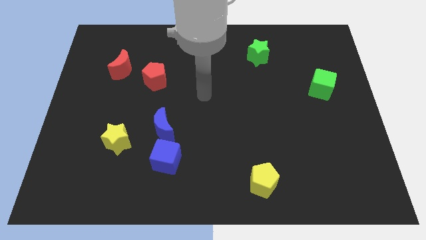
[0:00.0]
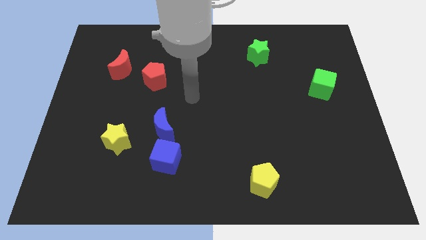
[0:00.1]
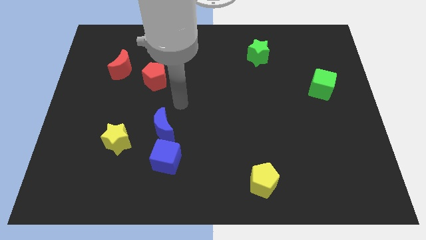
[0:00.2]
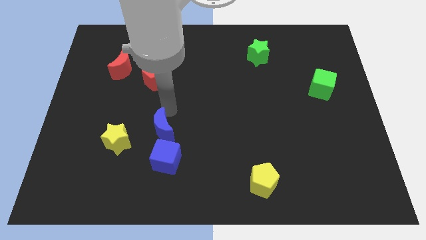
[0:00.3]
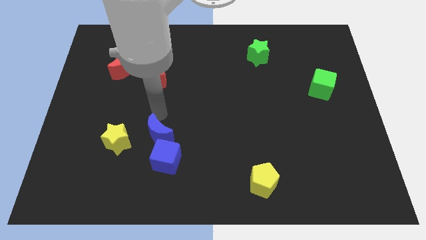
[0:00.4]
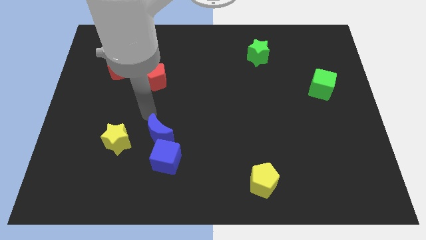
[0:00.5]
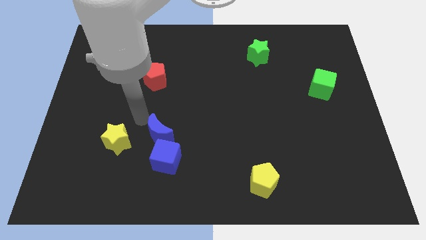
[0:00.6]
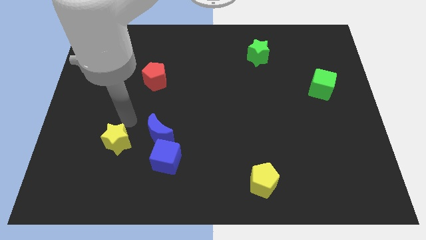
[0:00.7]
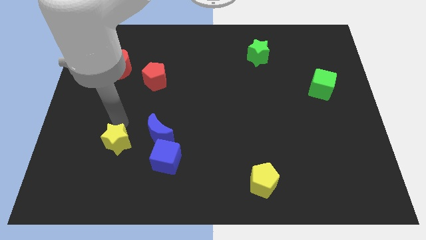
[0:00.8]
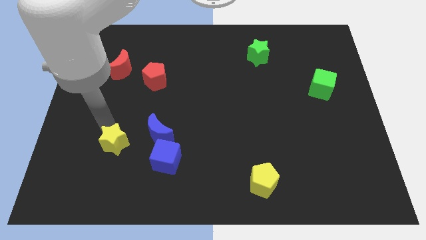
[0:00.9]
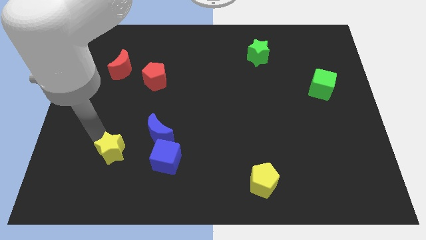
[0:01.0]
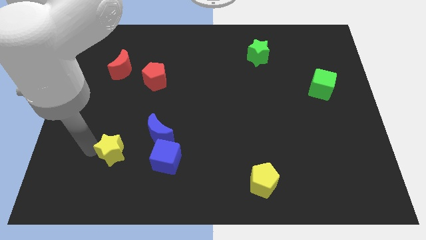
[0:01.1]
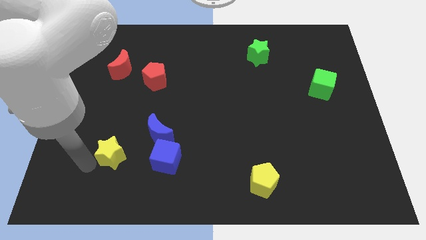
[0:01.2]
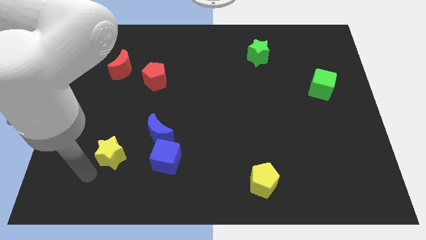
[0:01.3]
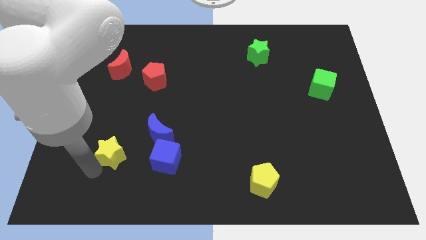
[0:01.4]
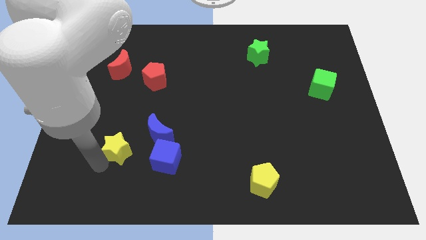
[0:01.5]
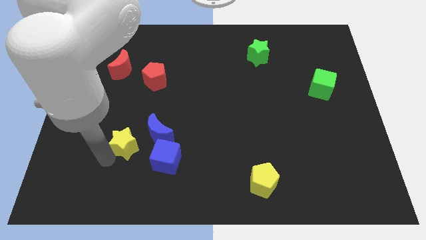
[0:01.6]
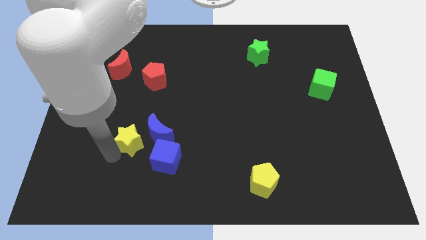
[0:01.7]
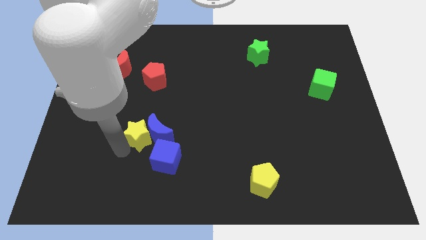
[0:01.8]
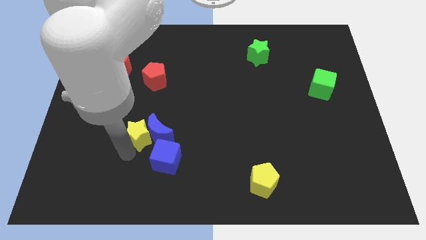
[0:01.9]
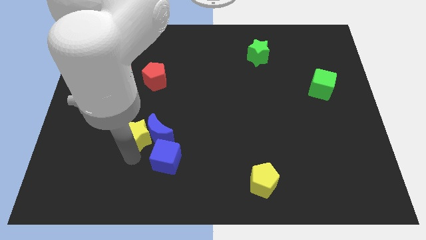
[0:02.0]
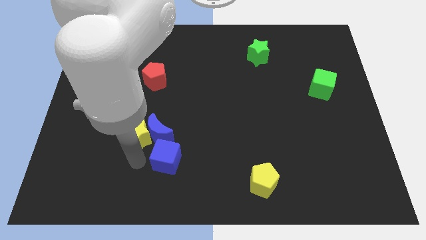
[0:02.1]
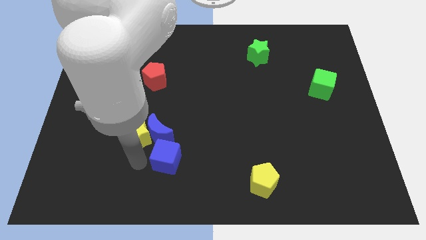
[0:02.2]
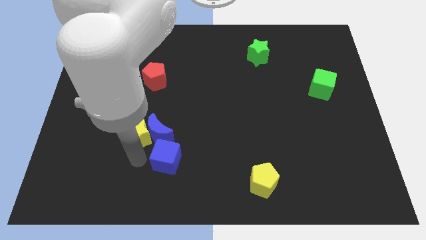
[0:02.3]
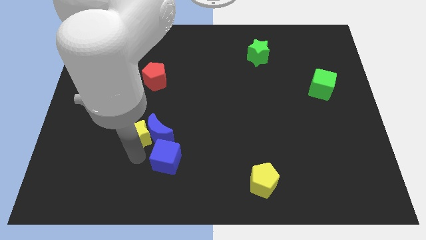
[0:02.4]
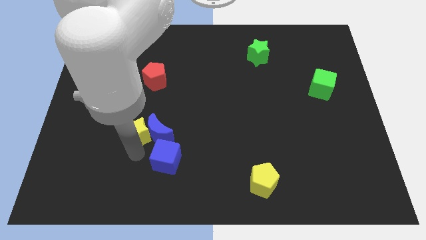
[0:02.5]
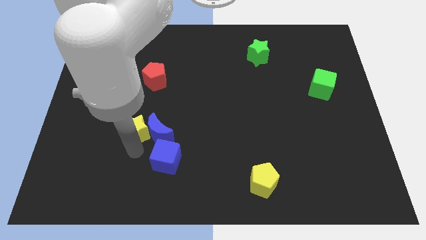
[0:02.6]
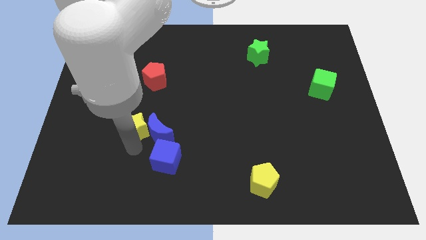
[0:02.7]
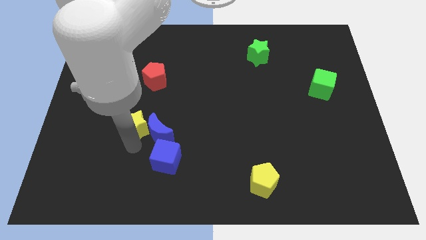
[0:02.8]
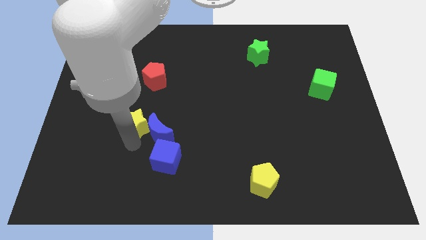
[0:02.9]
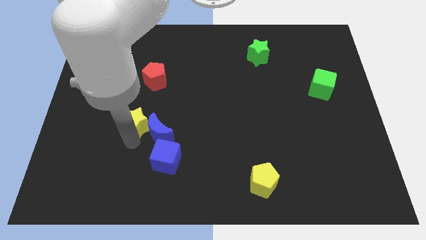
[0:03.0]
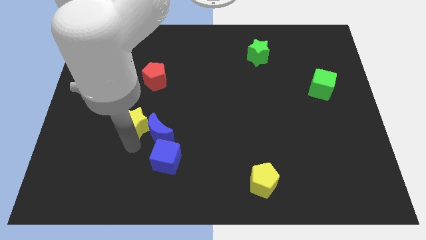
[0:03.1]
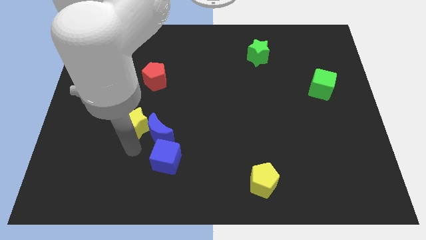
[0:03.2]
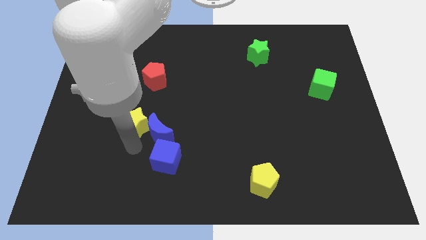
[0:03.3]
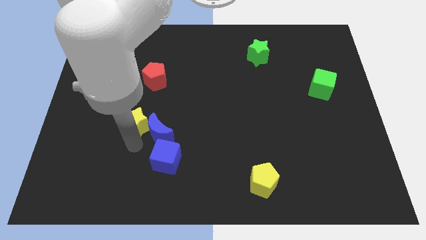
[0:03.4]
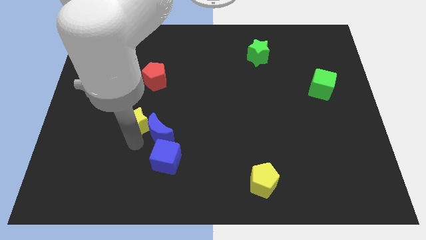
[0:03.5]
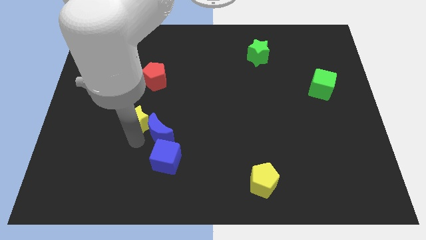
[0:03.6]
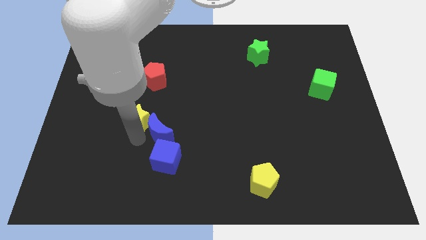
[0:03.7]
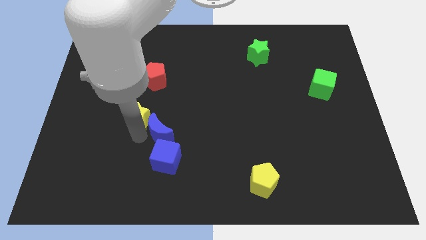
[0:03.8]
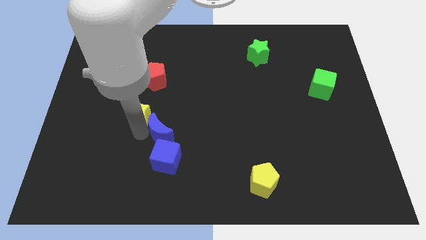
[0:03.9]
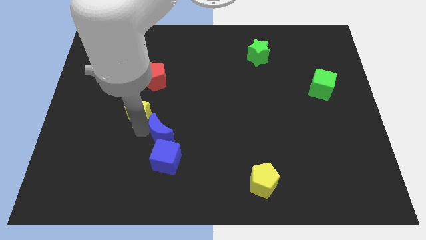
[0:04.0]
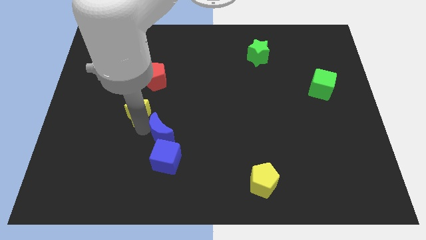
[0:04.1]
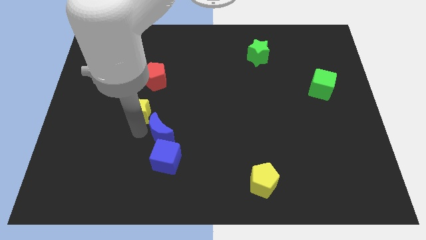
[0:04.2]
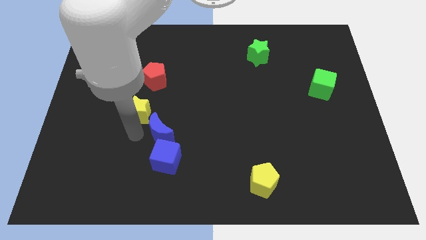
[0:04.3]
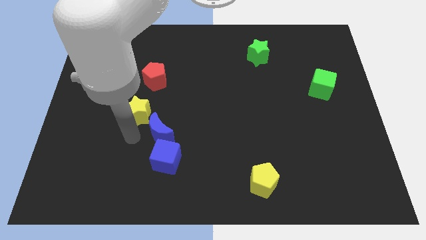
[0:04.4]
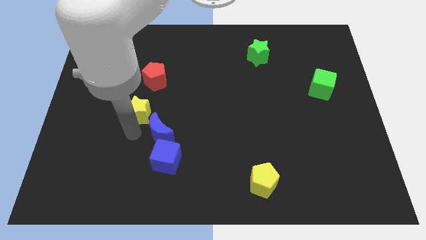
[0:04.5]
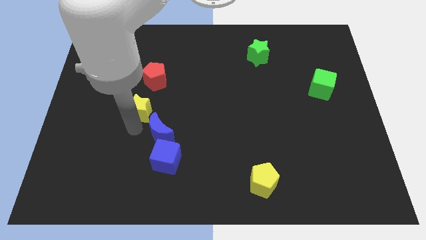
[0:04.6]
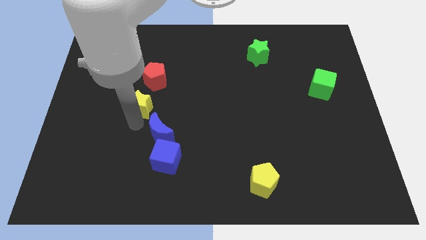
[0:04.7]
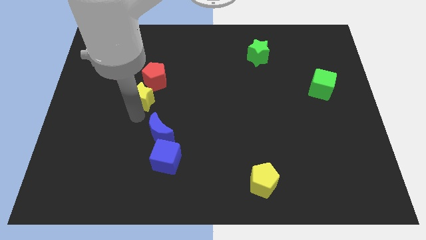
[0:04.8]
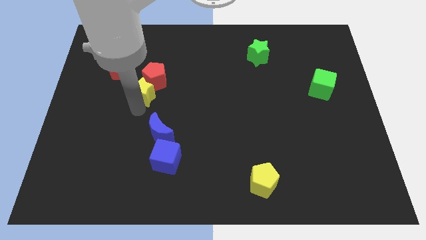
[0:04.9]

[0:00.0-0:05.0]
put the yellow star close to the red pentagon

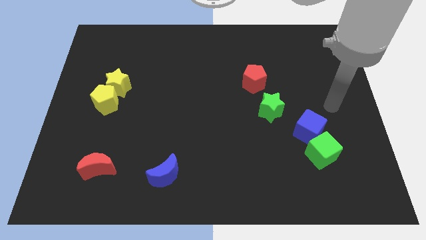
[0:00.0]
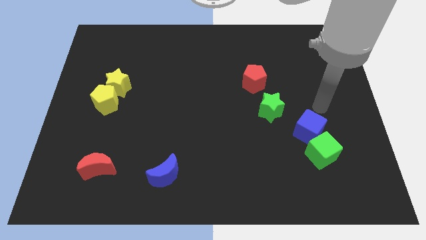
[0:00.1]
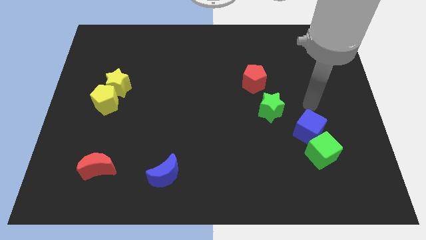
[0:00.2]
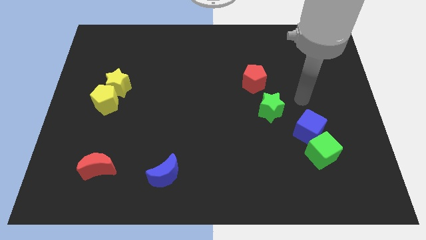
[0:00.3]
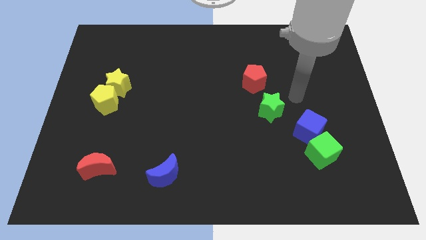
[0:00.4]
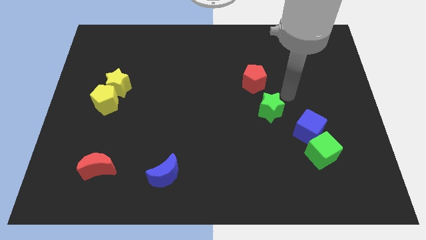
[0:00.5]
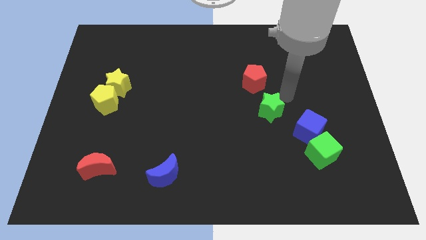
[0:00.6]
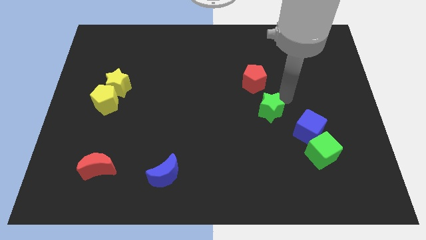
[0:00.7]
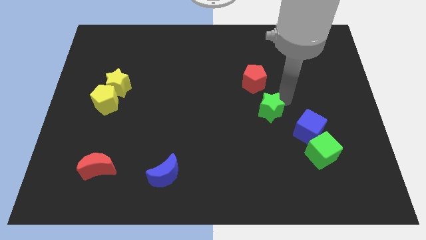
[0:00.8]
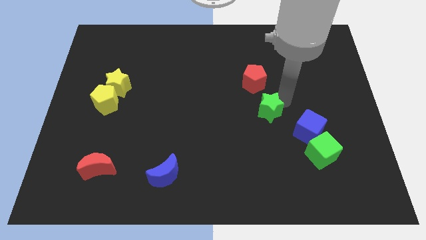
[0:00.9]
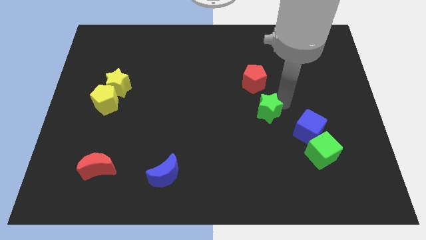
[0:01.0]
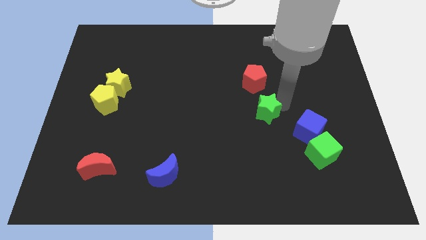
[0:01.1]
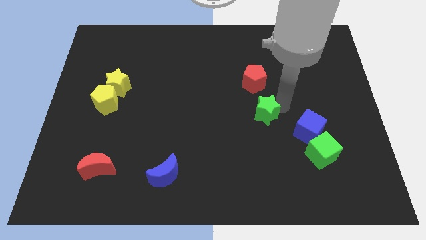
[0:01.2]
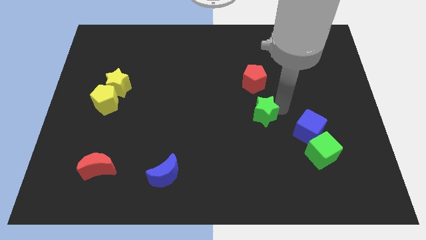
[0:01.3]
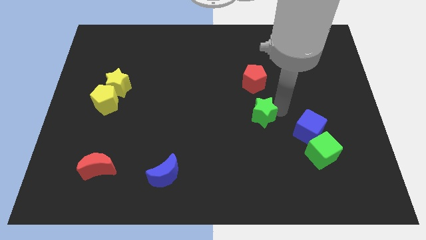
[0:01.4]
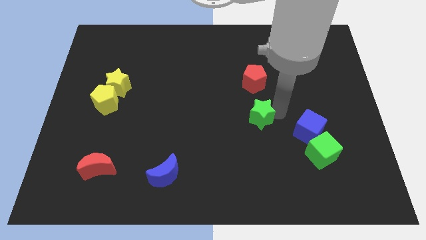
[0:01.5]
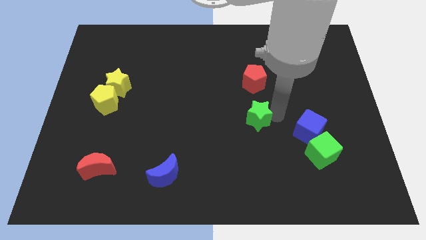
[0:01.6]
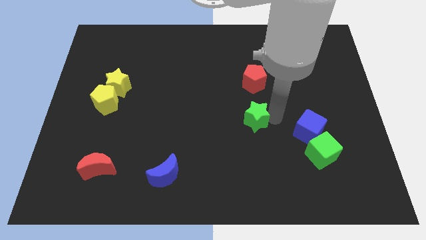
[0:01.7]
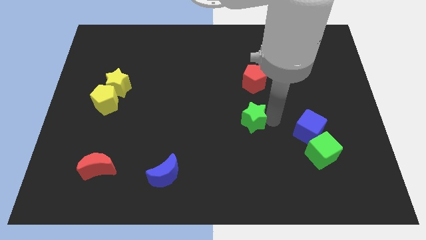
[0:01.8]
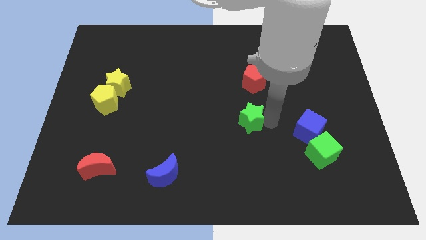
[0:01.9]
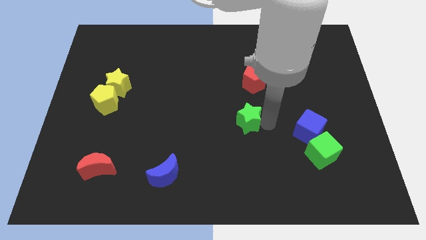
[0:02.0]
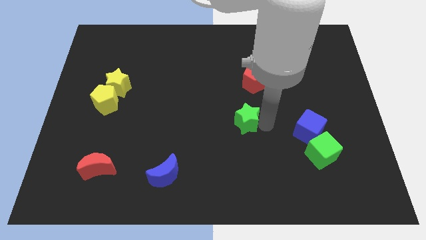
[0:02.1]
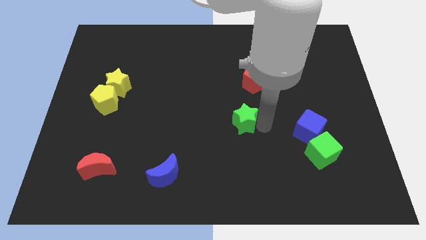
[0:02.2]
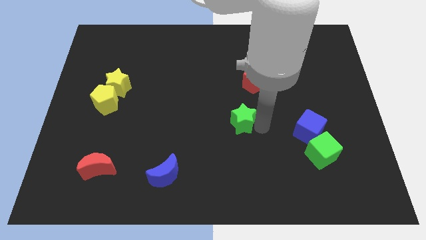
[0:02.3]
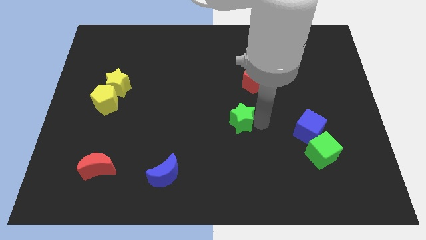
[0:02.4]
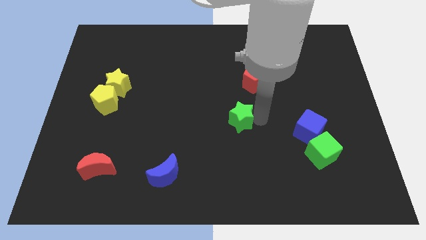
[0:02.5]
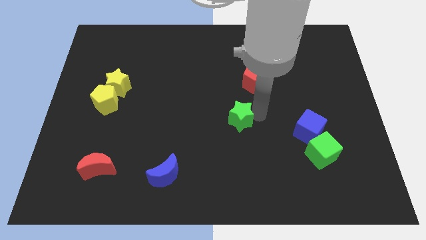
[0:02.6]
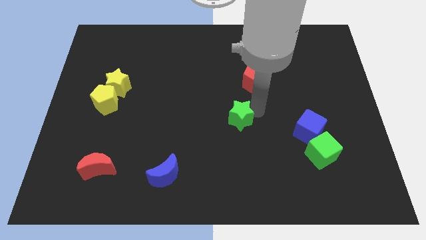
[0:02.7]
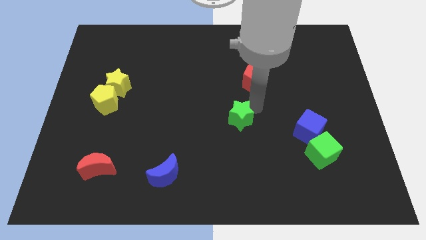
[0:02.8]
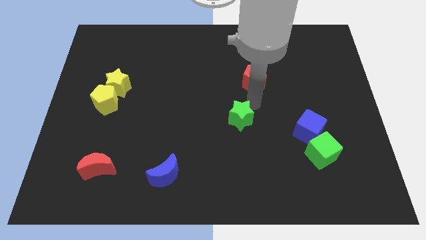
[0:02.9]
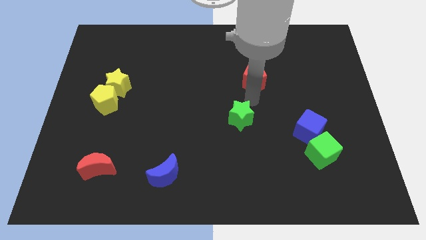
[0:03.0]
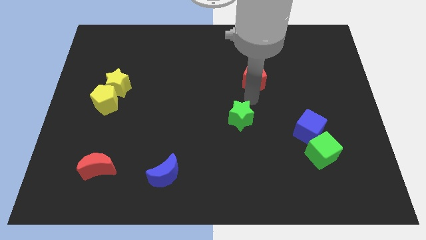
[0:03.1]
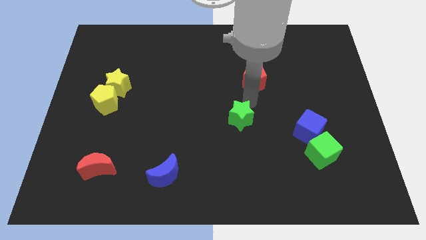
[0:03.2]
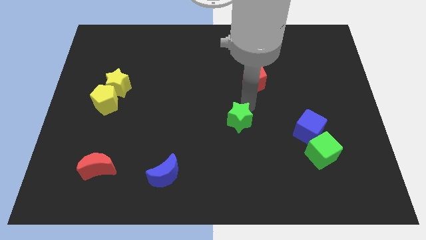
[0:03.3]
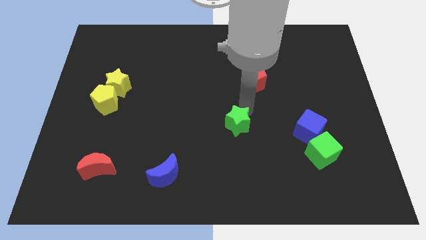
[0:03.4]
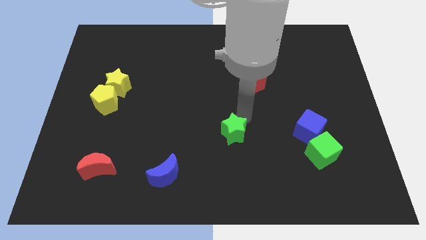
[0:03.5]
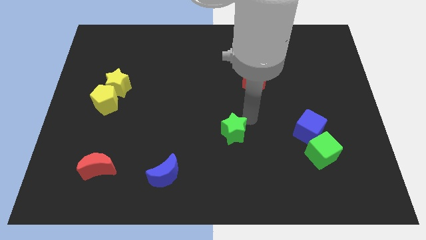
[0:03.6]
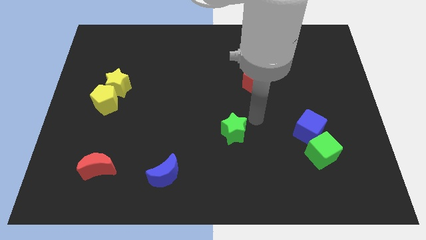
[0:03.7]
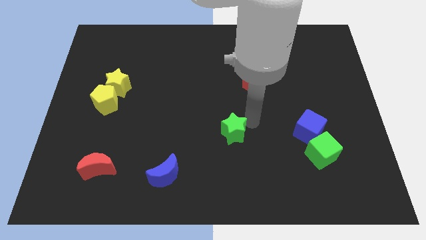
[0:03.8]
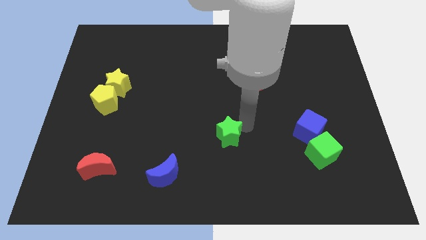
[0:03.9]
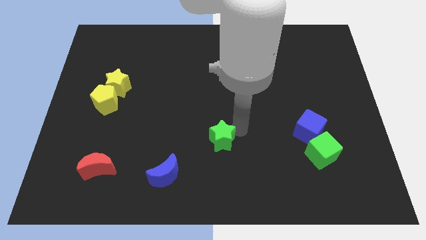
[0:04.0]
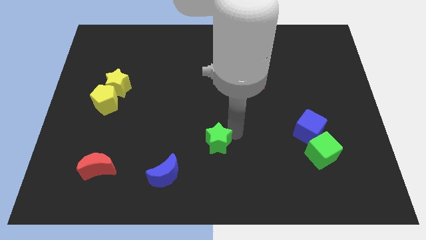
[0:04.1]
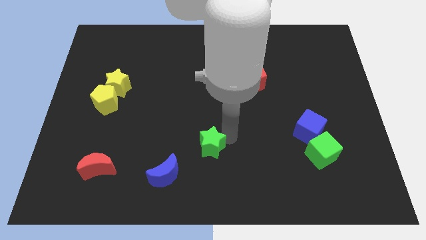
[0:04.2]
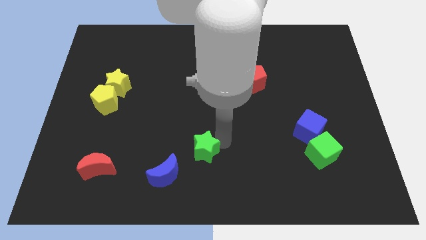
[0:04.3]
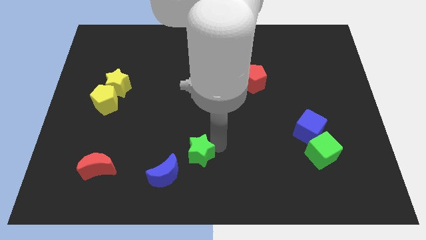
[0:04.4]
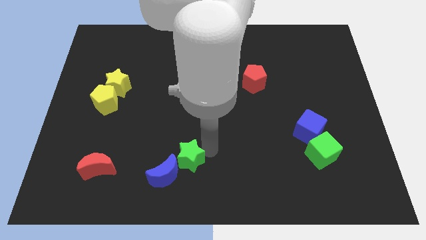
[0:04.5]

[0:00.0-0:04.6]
put the green star towards the blue moon
